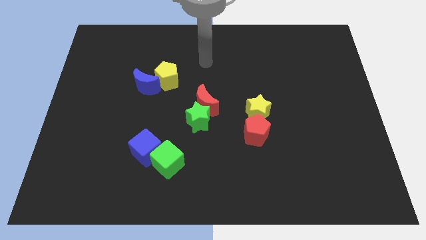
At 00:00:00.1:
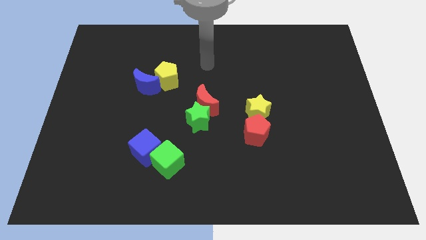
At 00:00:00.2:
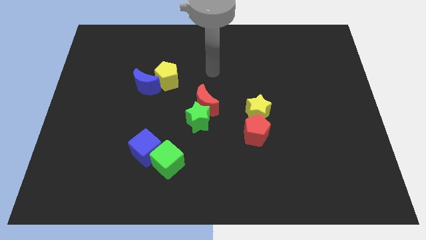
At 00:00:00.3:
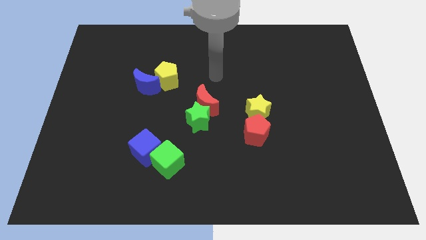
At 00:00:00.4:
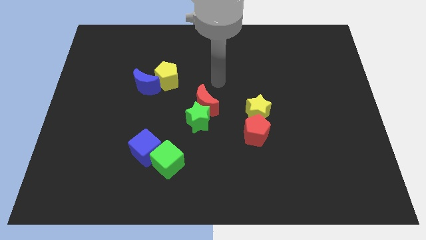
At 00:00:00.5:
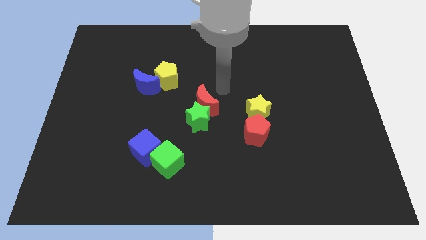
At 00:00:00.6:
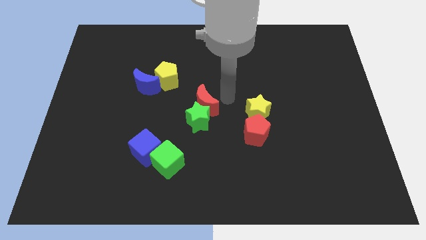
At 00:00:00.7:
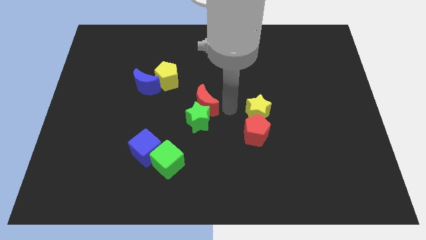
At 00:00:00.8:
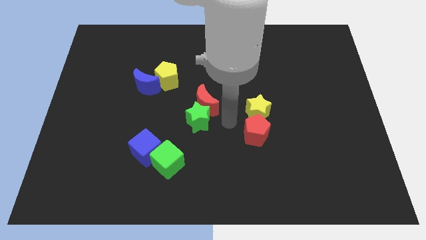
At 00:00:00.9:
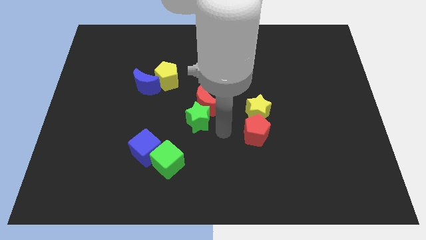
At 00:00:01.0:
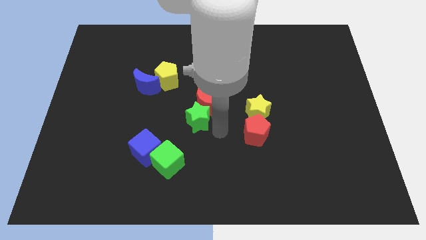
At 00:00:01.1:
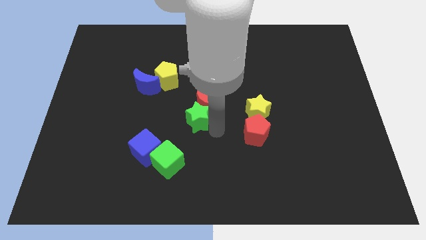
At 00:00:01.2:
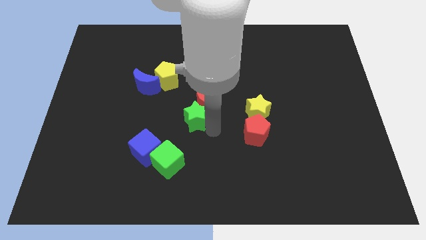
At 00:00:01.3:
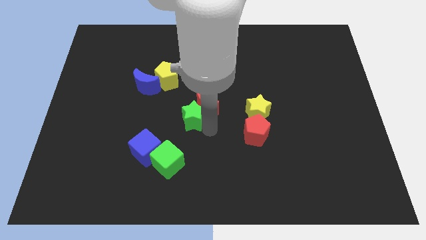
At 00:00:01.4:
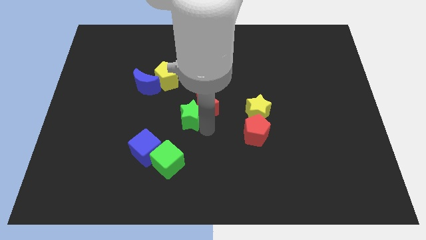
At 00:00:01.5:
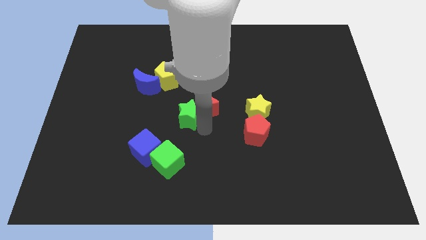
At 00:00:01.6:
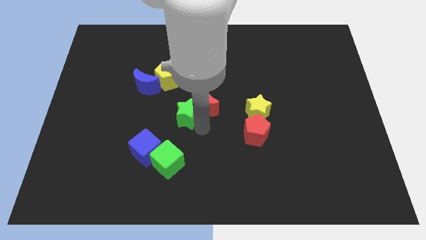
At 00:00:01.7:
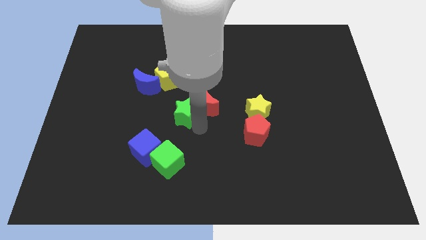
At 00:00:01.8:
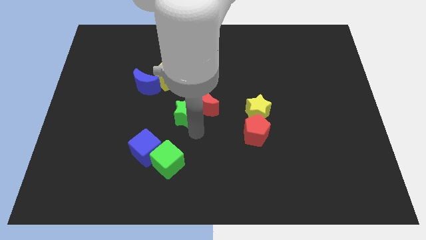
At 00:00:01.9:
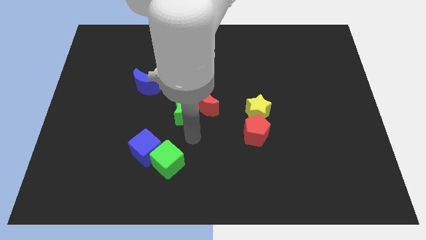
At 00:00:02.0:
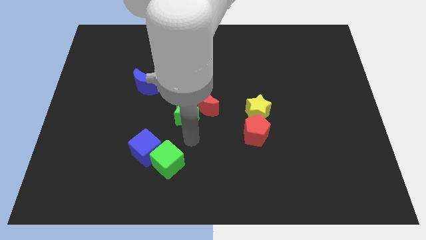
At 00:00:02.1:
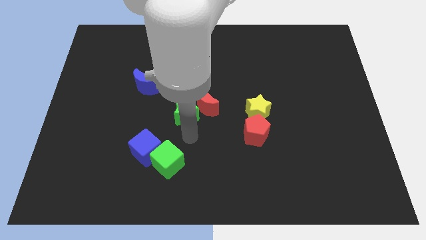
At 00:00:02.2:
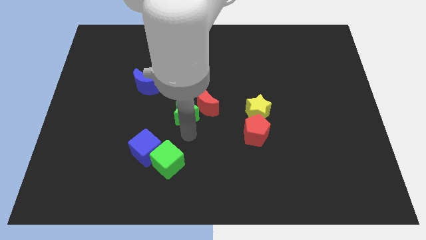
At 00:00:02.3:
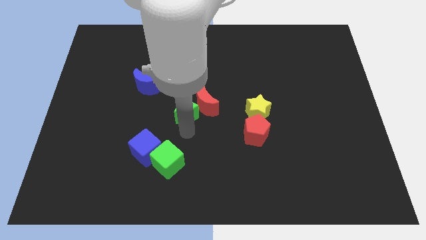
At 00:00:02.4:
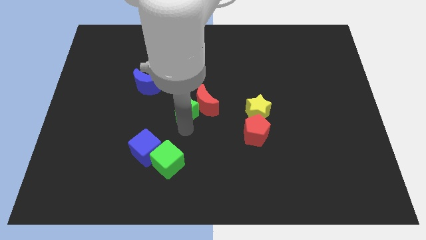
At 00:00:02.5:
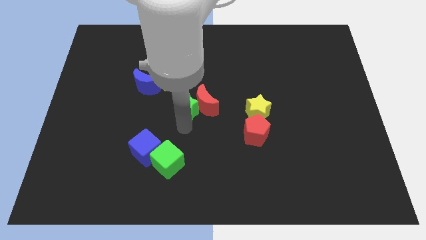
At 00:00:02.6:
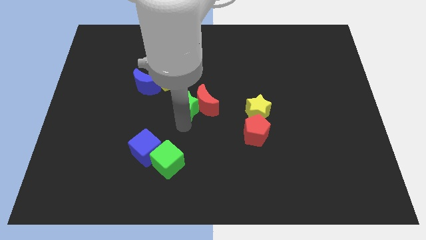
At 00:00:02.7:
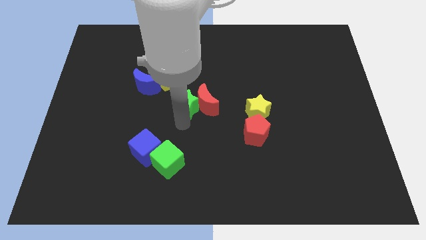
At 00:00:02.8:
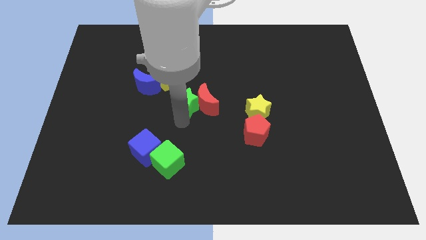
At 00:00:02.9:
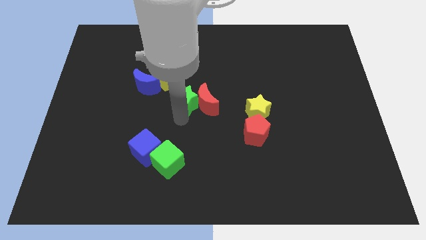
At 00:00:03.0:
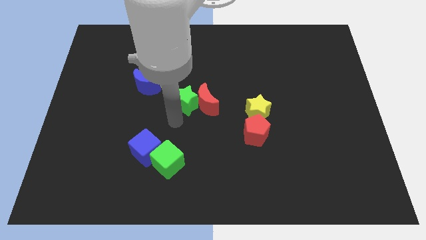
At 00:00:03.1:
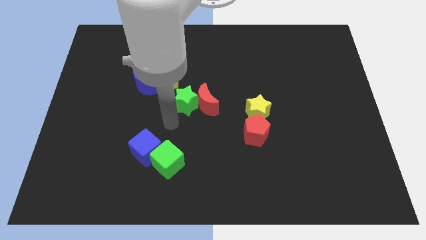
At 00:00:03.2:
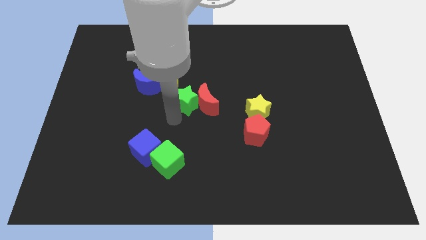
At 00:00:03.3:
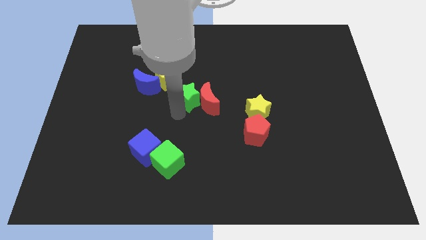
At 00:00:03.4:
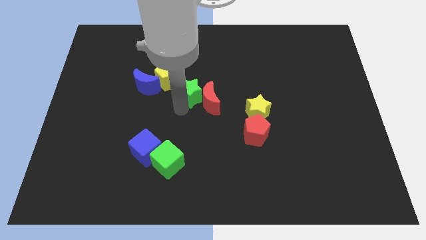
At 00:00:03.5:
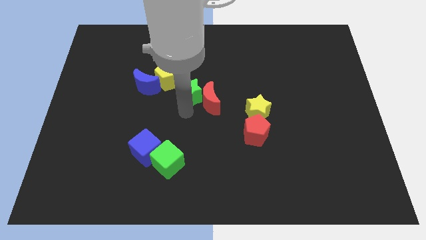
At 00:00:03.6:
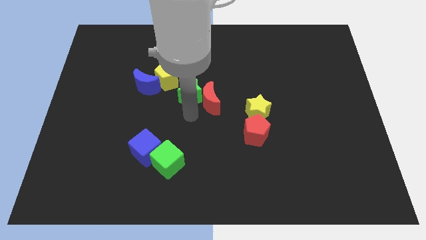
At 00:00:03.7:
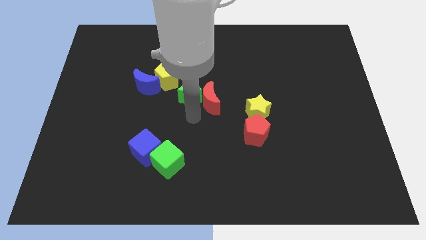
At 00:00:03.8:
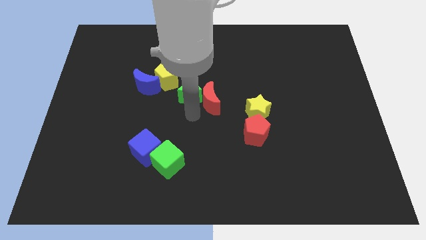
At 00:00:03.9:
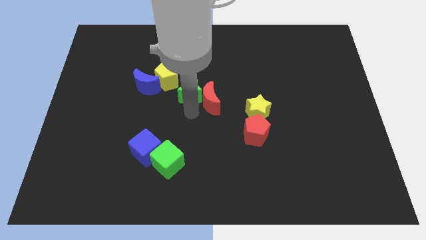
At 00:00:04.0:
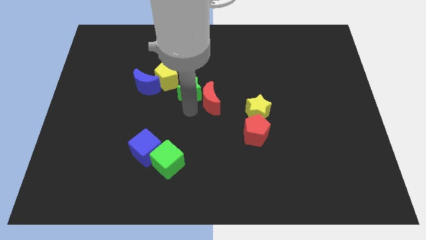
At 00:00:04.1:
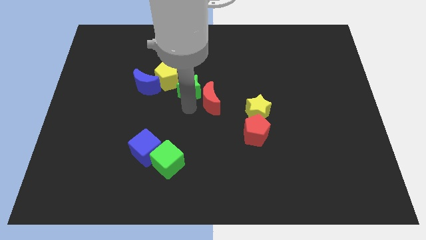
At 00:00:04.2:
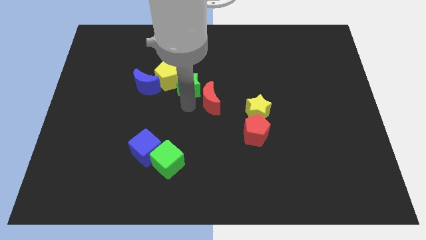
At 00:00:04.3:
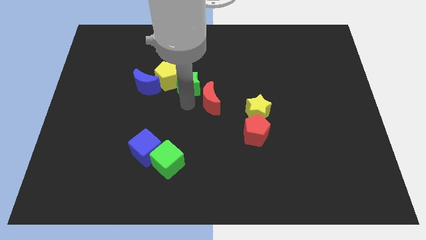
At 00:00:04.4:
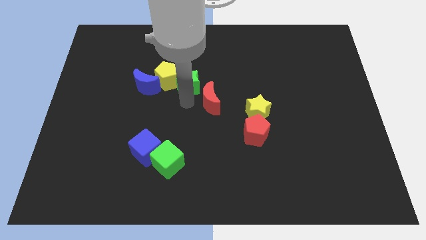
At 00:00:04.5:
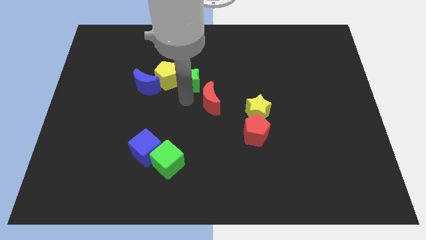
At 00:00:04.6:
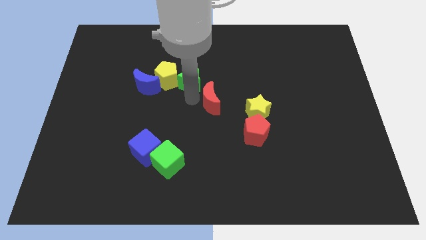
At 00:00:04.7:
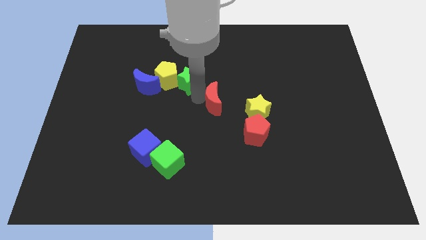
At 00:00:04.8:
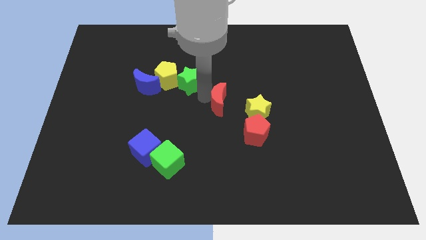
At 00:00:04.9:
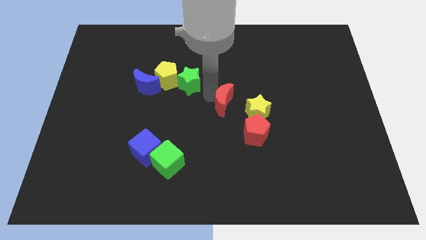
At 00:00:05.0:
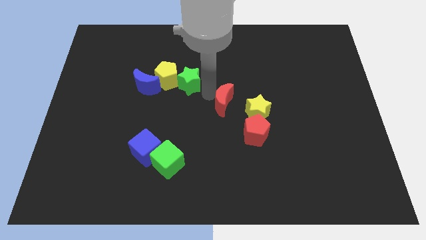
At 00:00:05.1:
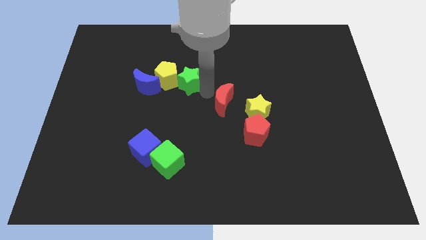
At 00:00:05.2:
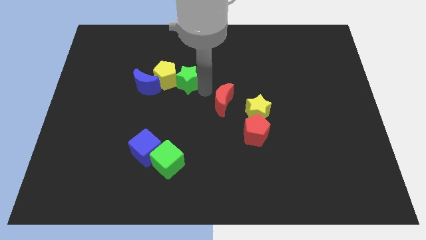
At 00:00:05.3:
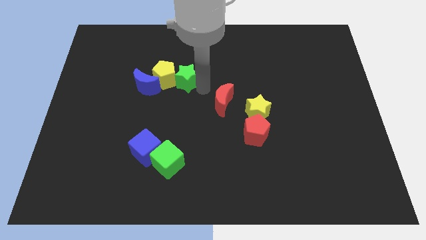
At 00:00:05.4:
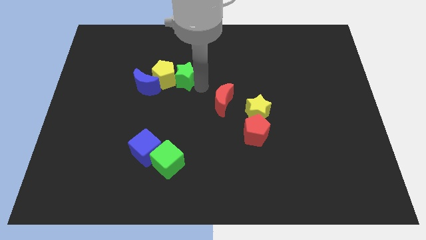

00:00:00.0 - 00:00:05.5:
put the green star to the top right side of the blue moon

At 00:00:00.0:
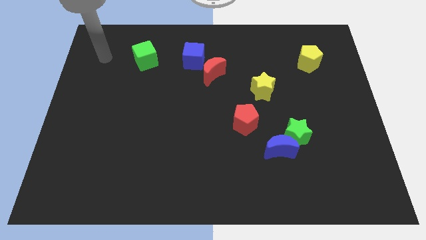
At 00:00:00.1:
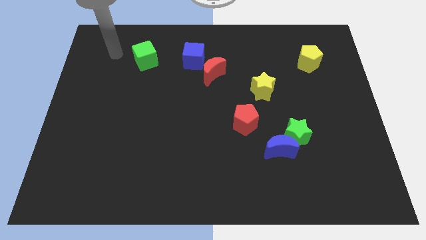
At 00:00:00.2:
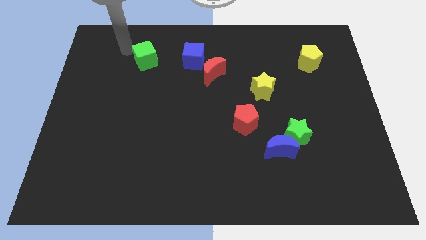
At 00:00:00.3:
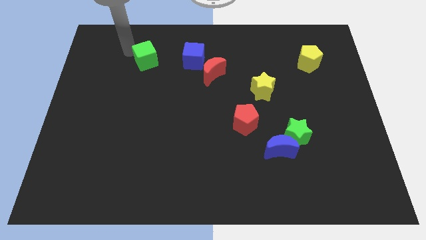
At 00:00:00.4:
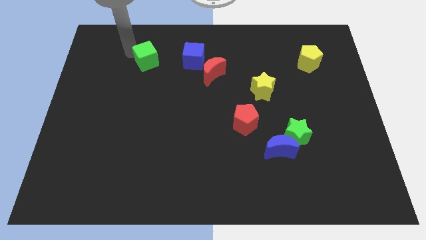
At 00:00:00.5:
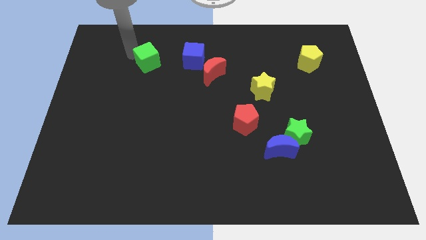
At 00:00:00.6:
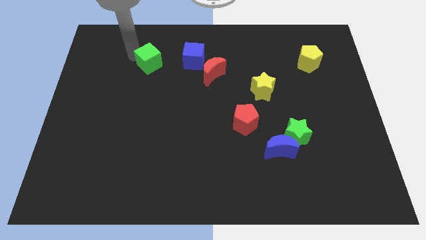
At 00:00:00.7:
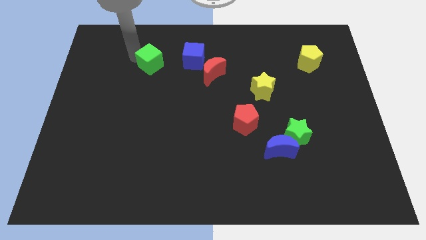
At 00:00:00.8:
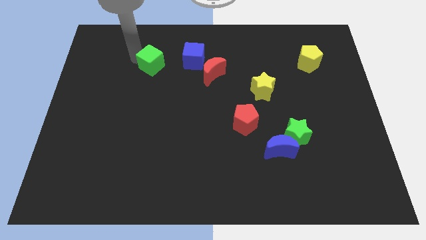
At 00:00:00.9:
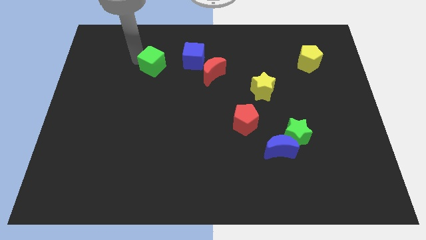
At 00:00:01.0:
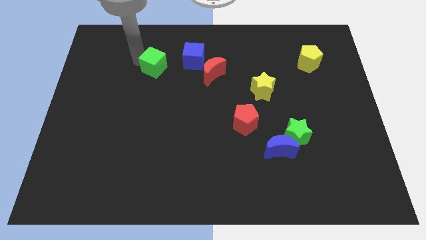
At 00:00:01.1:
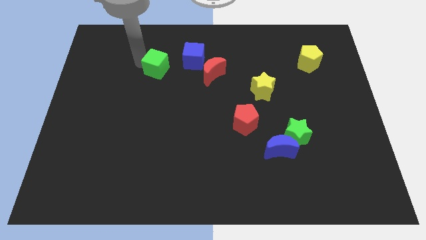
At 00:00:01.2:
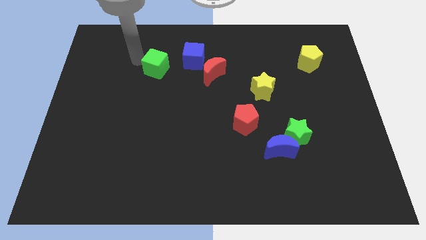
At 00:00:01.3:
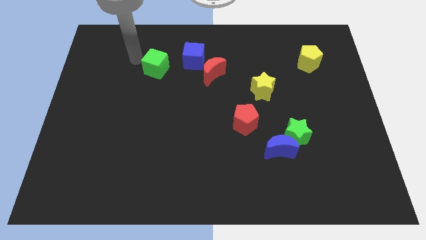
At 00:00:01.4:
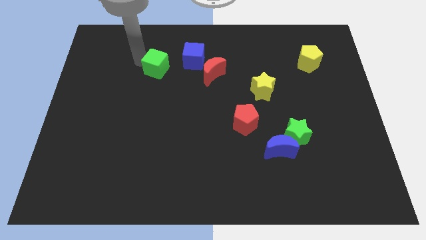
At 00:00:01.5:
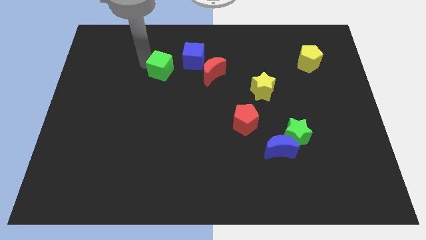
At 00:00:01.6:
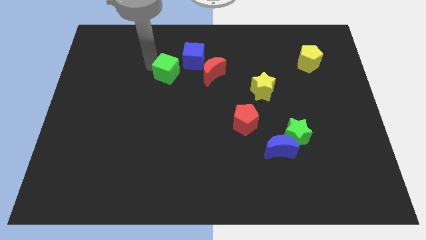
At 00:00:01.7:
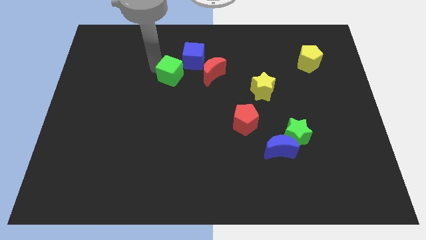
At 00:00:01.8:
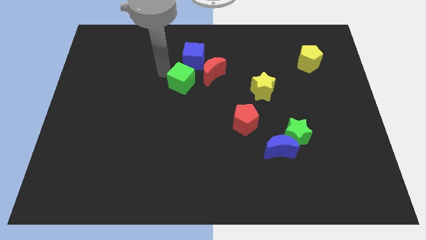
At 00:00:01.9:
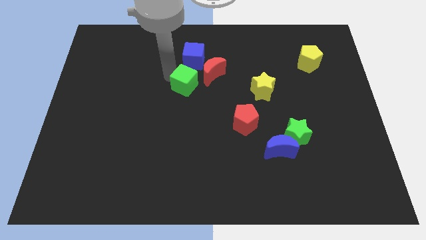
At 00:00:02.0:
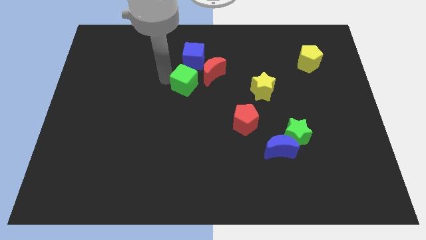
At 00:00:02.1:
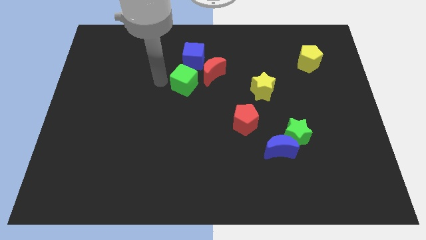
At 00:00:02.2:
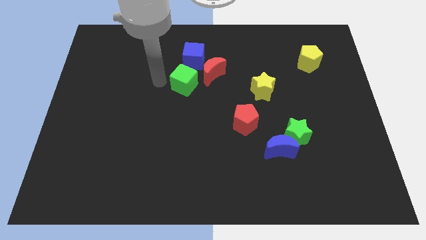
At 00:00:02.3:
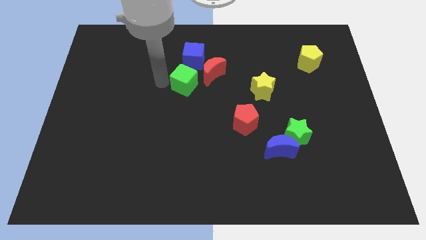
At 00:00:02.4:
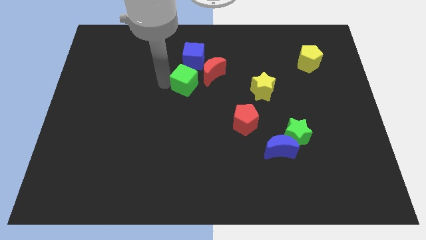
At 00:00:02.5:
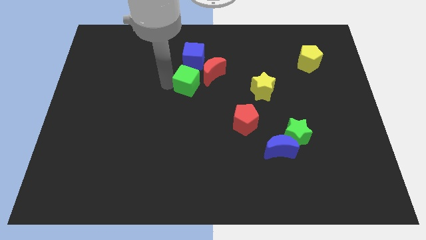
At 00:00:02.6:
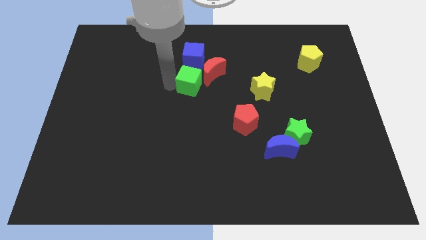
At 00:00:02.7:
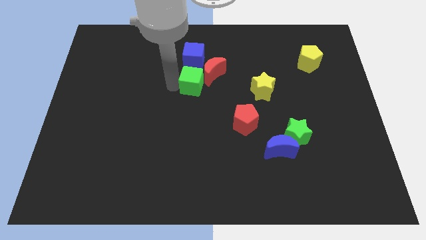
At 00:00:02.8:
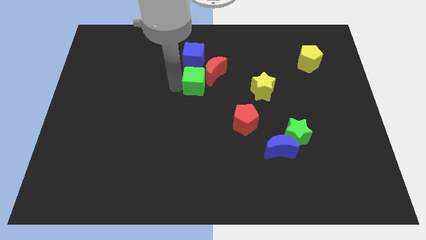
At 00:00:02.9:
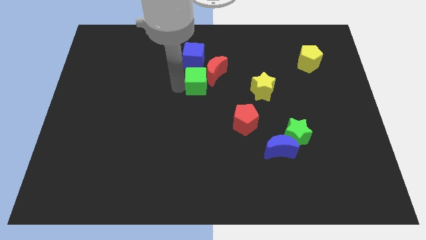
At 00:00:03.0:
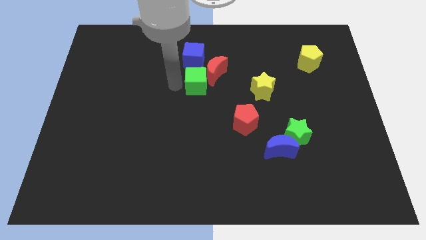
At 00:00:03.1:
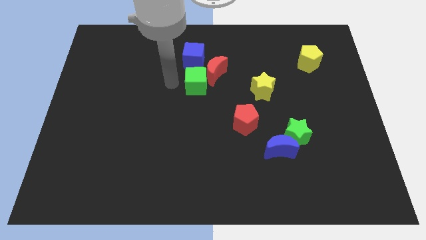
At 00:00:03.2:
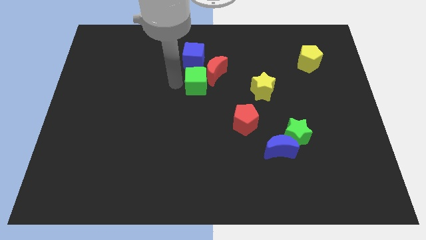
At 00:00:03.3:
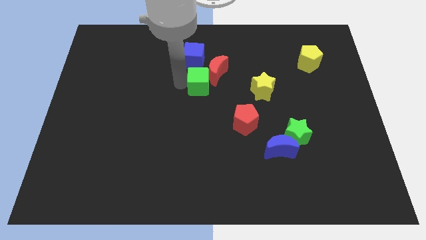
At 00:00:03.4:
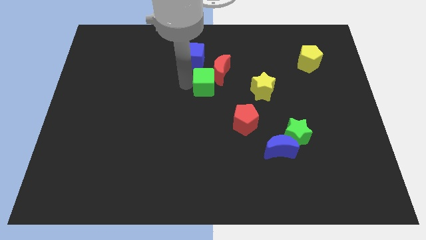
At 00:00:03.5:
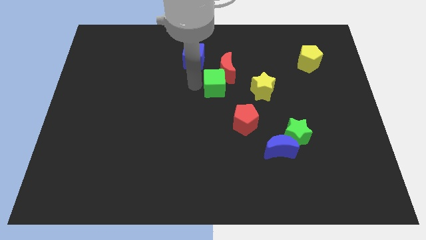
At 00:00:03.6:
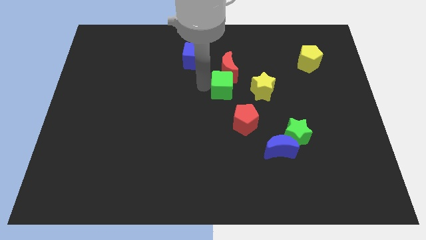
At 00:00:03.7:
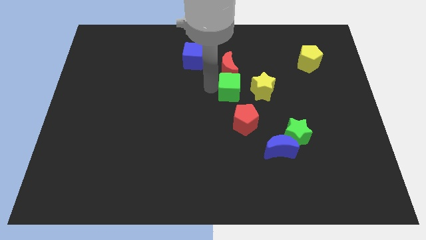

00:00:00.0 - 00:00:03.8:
put the green cube diagonally down and to the right of the red moon
